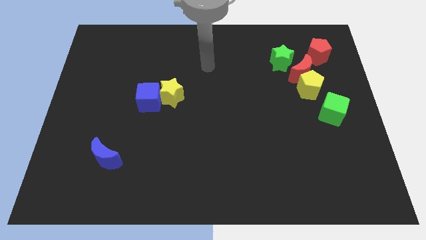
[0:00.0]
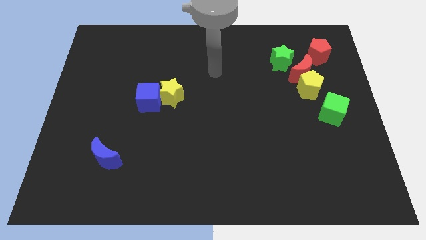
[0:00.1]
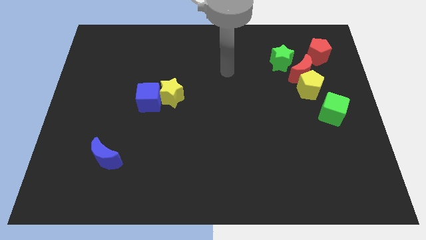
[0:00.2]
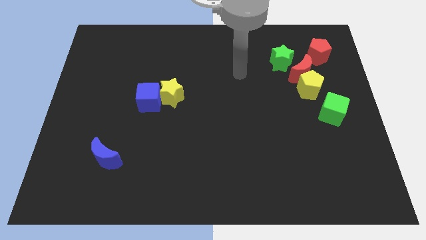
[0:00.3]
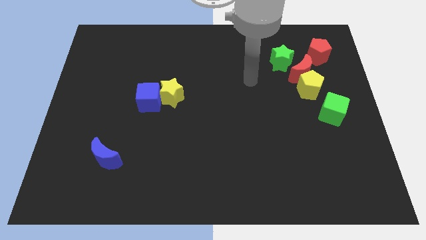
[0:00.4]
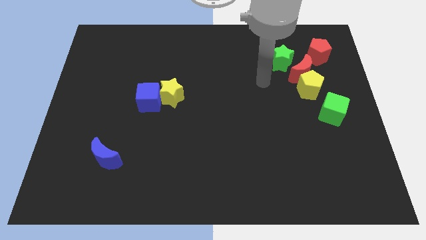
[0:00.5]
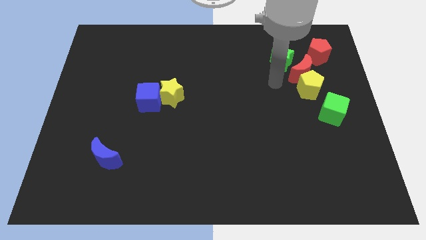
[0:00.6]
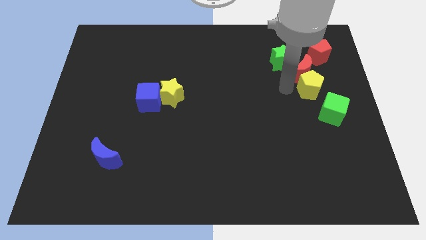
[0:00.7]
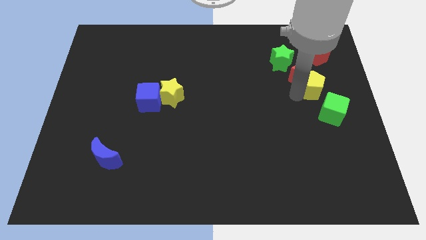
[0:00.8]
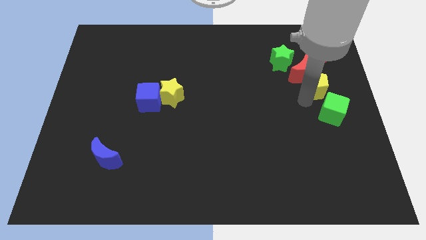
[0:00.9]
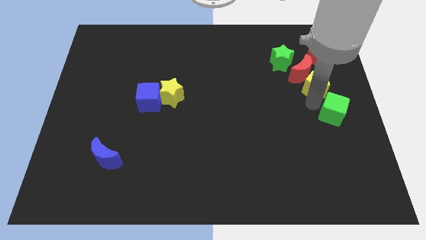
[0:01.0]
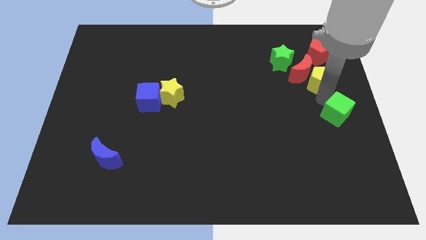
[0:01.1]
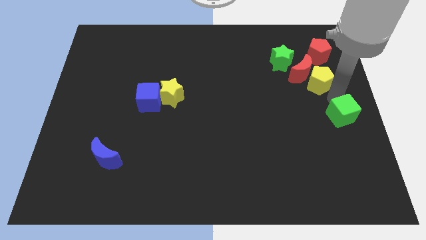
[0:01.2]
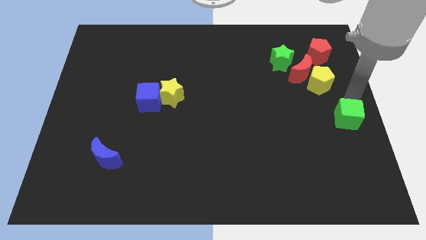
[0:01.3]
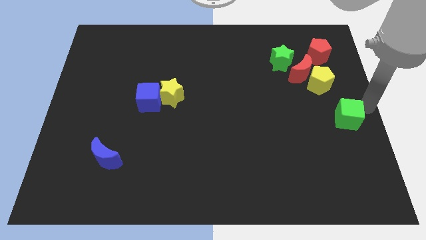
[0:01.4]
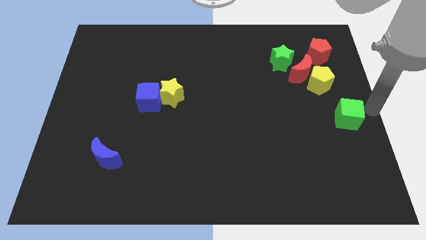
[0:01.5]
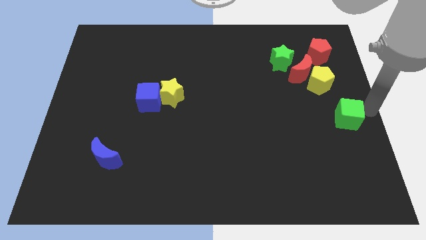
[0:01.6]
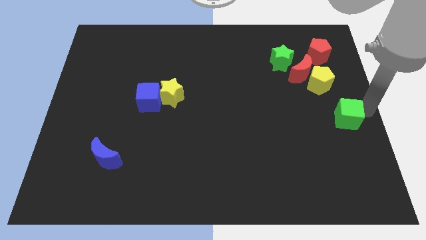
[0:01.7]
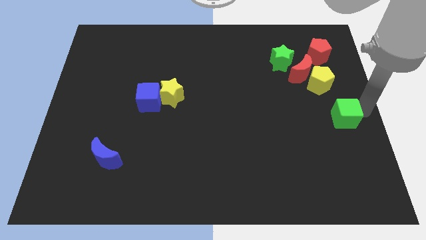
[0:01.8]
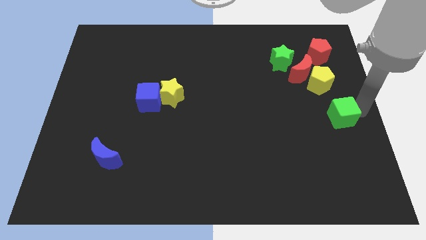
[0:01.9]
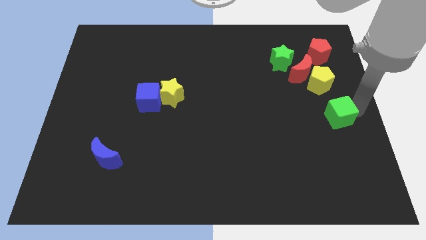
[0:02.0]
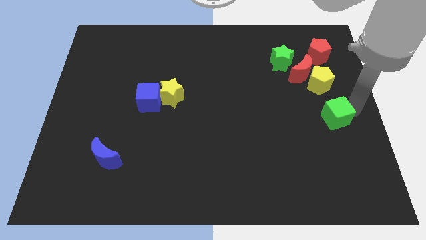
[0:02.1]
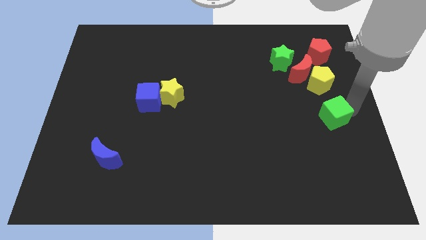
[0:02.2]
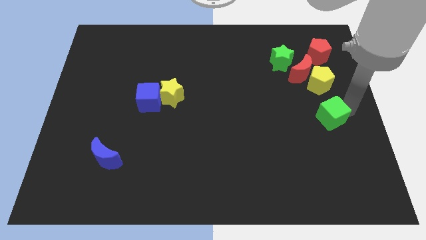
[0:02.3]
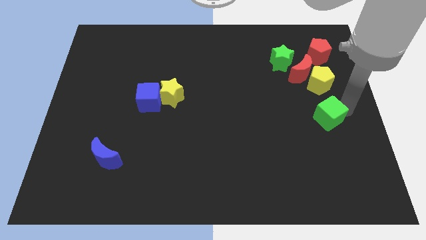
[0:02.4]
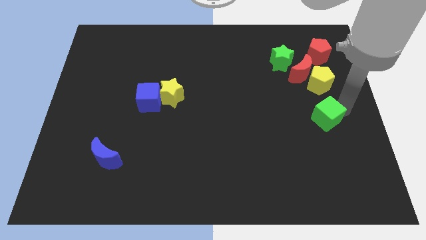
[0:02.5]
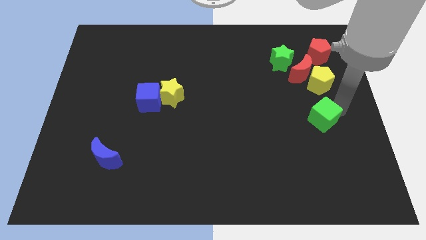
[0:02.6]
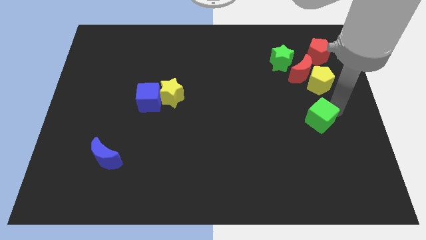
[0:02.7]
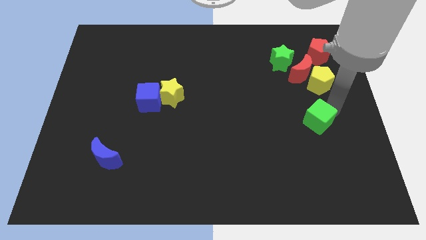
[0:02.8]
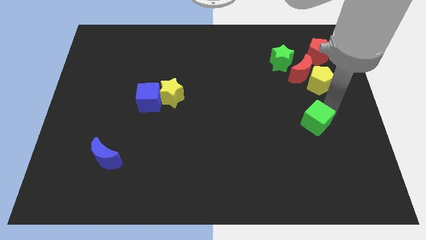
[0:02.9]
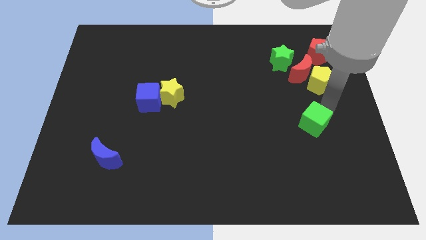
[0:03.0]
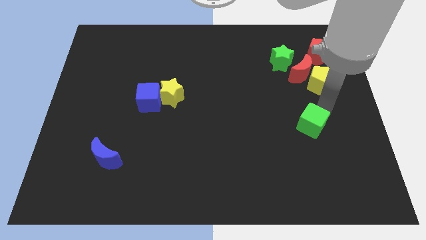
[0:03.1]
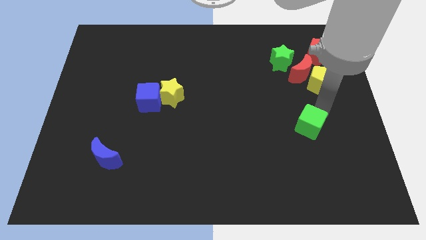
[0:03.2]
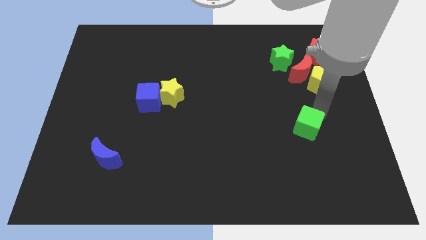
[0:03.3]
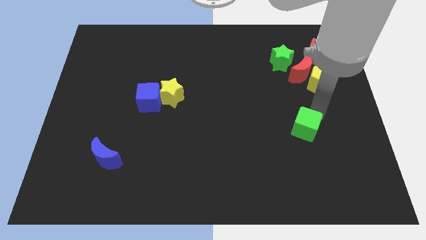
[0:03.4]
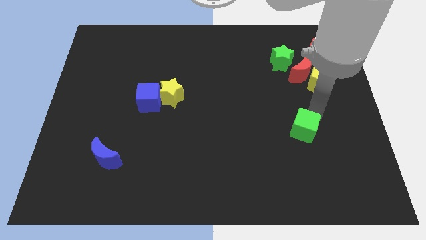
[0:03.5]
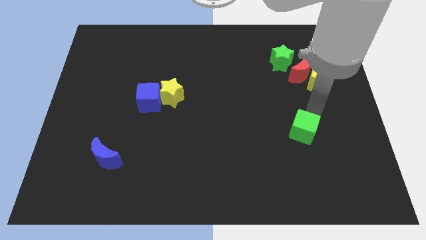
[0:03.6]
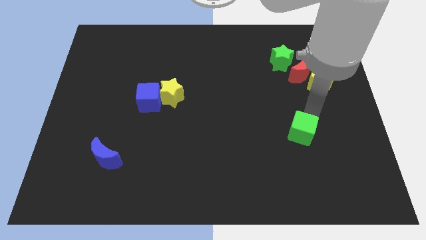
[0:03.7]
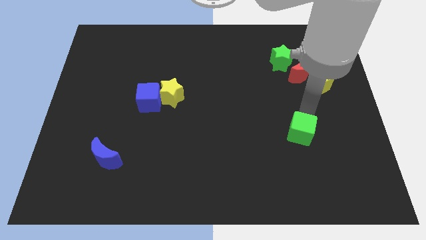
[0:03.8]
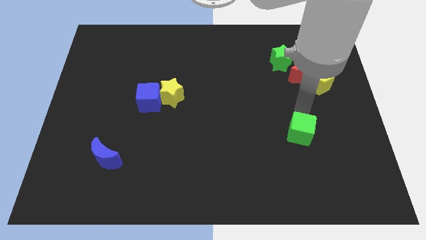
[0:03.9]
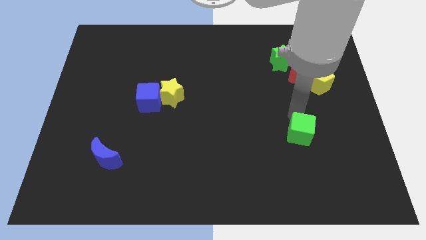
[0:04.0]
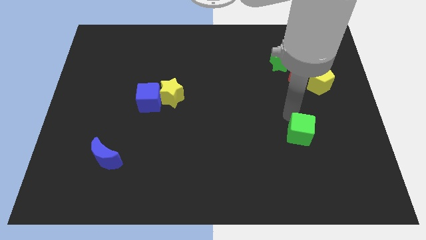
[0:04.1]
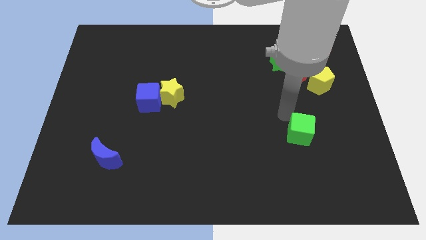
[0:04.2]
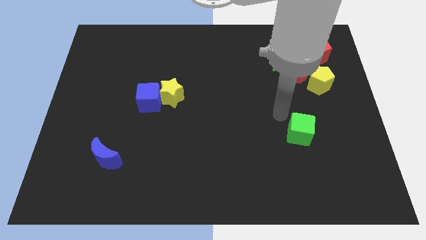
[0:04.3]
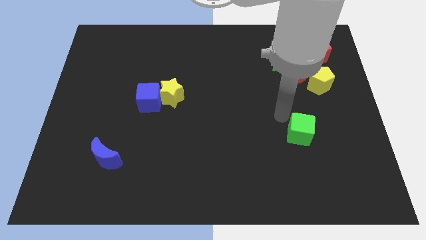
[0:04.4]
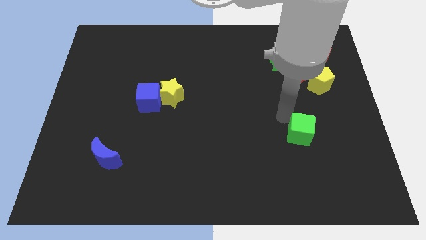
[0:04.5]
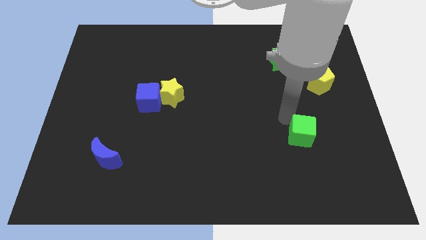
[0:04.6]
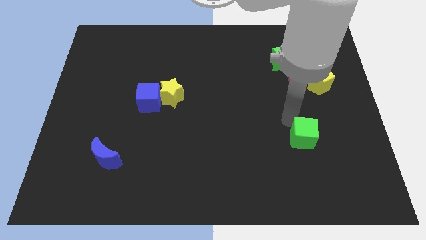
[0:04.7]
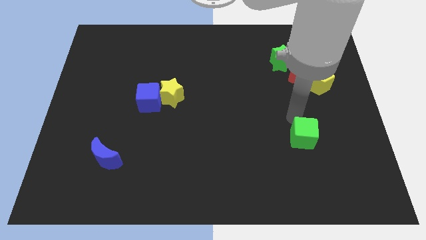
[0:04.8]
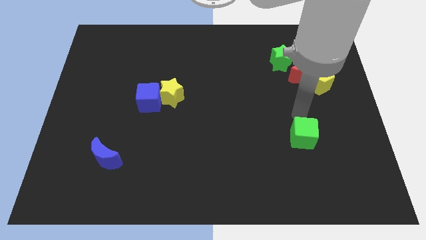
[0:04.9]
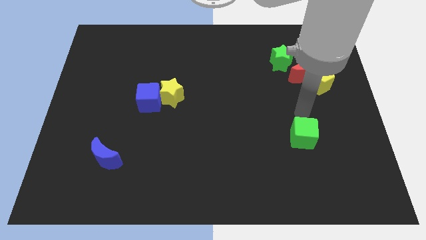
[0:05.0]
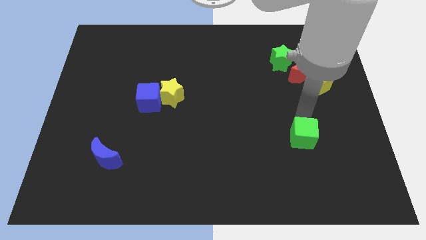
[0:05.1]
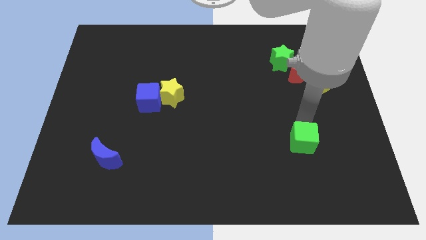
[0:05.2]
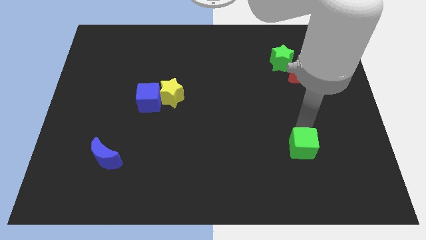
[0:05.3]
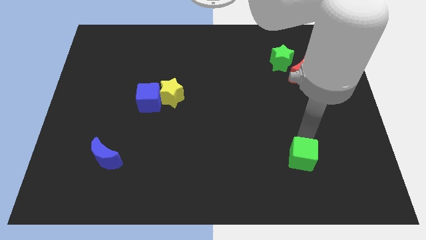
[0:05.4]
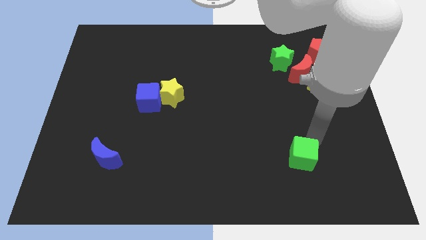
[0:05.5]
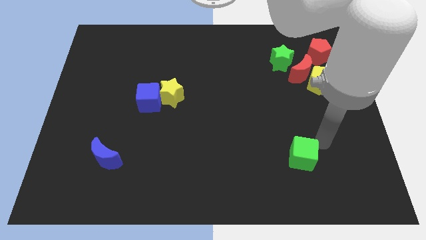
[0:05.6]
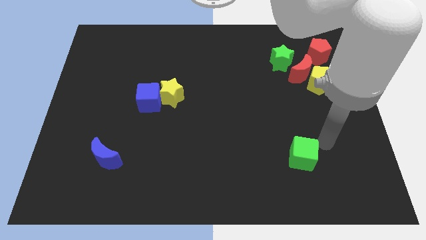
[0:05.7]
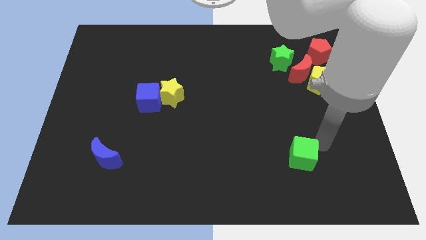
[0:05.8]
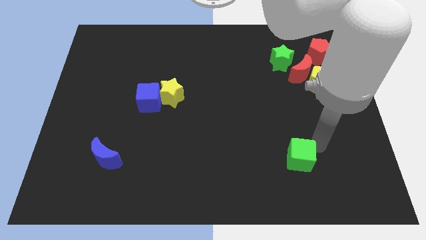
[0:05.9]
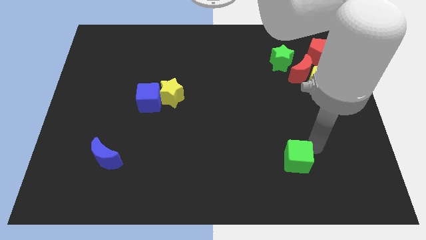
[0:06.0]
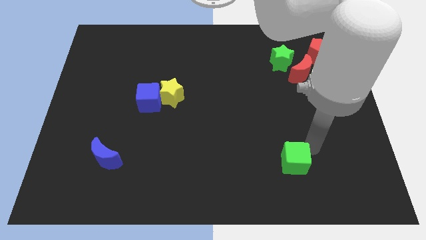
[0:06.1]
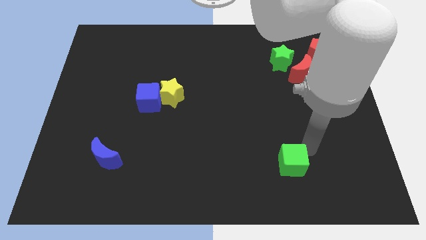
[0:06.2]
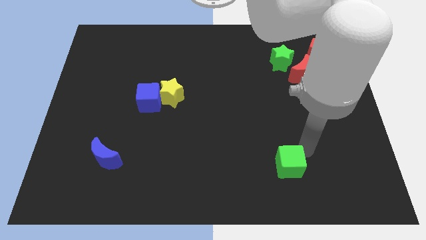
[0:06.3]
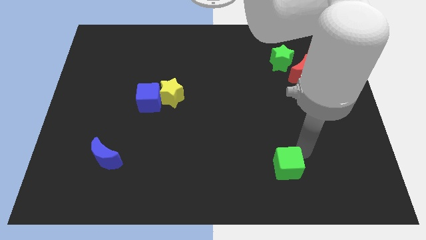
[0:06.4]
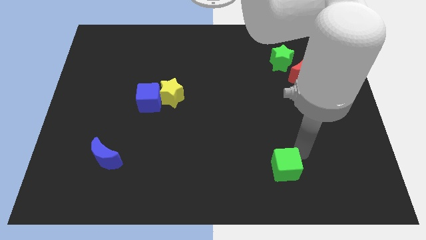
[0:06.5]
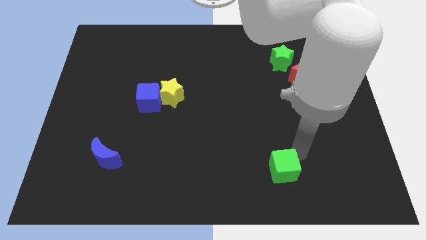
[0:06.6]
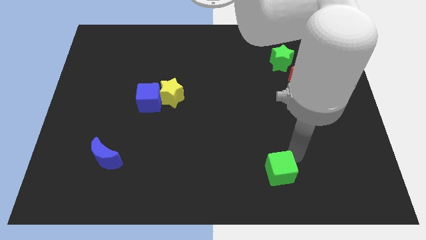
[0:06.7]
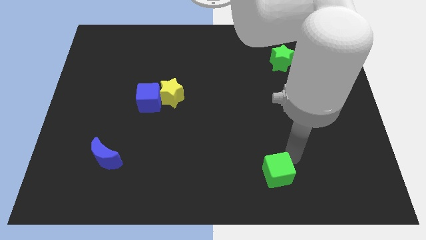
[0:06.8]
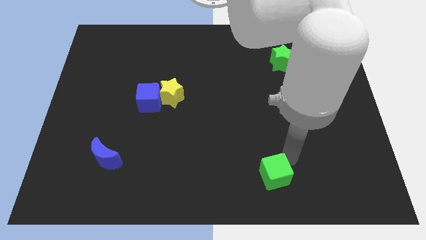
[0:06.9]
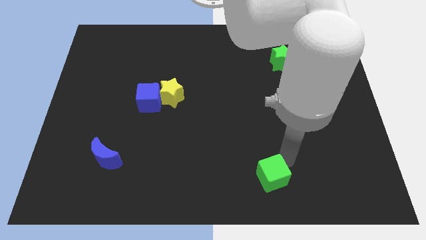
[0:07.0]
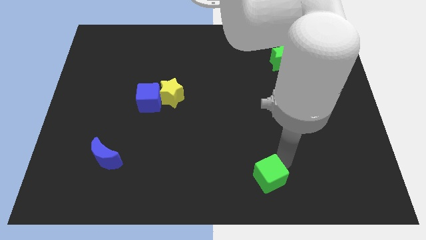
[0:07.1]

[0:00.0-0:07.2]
slide the green cube to the bottom
